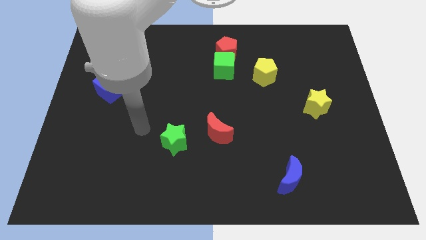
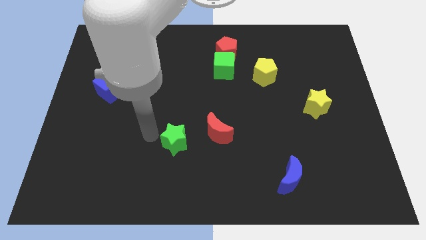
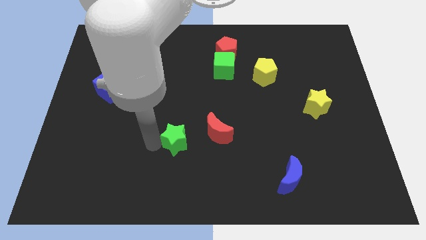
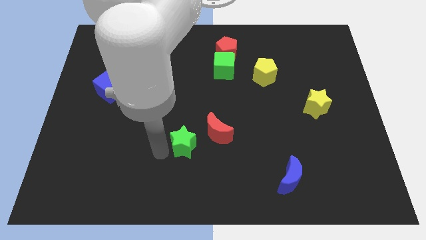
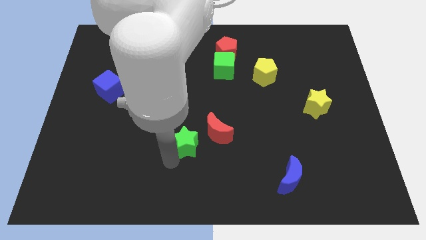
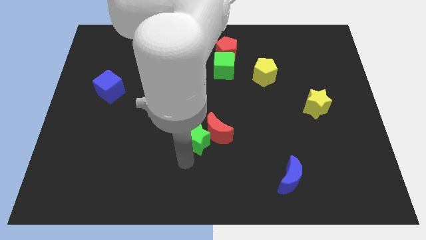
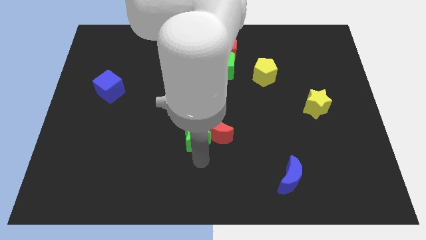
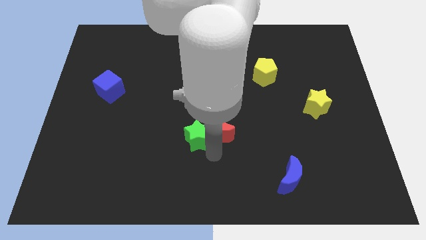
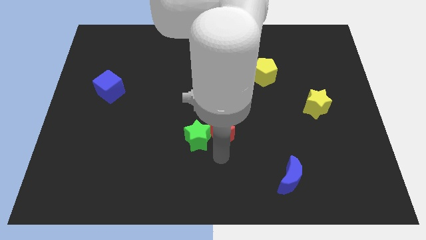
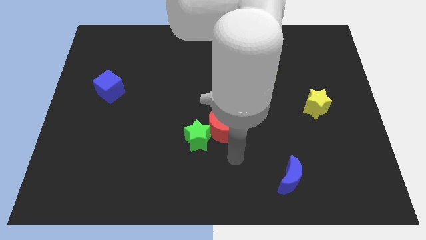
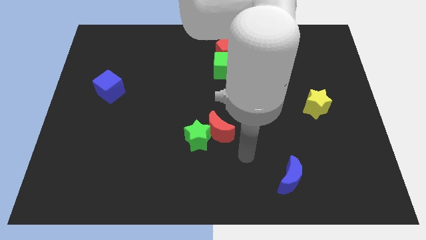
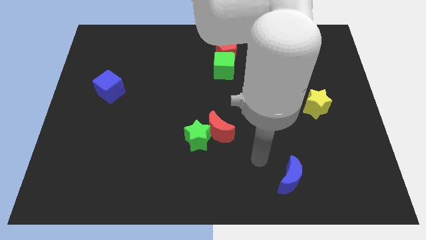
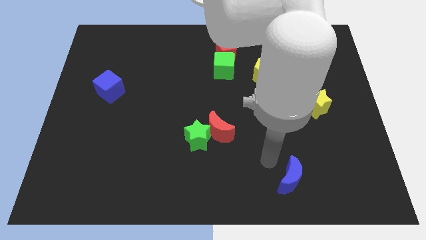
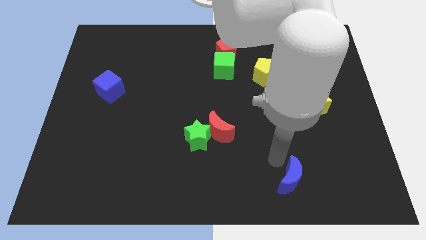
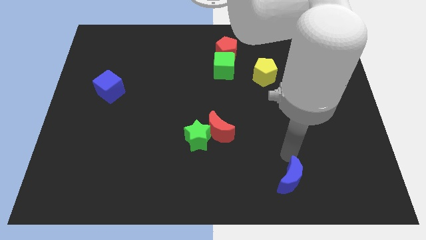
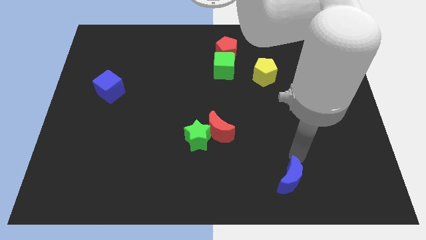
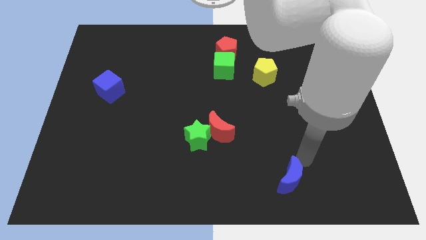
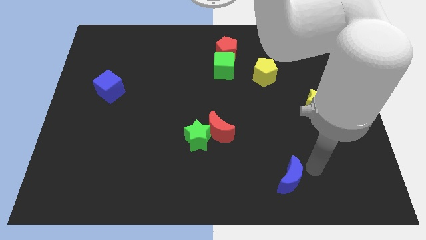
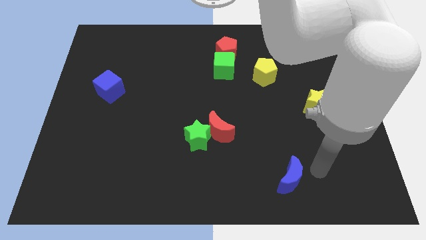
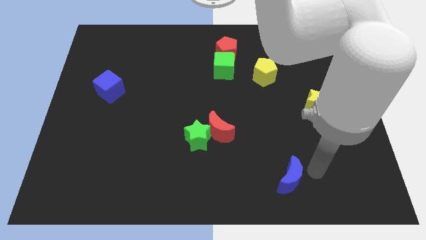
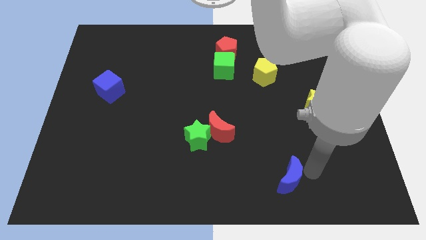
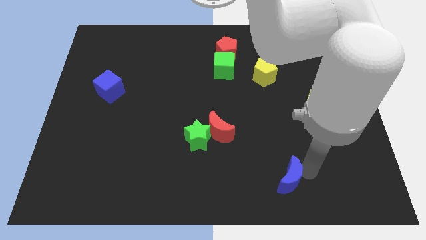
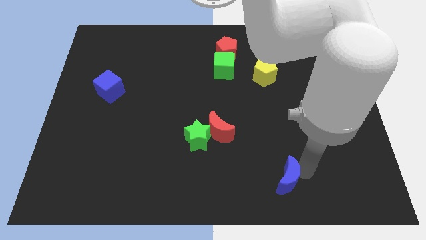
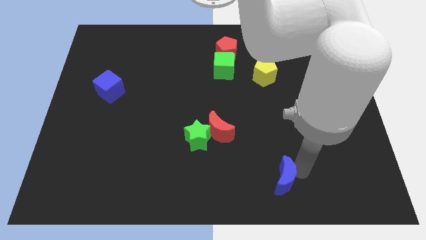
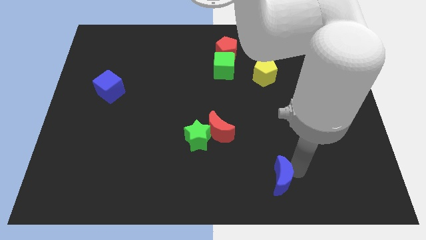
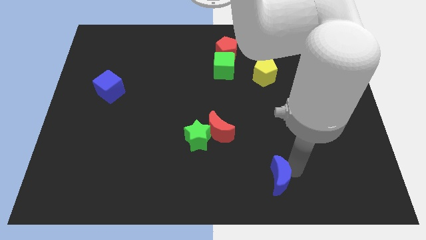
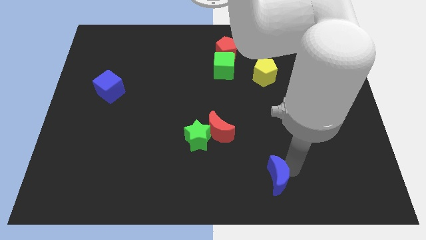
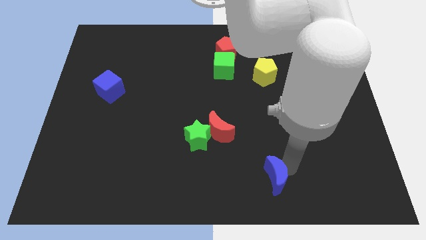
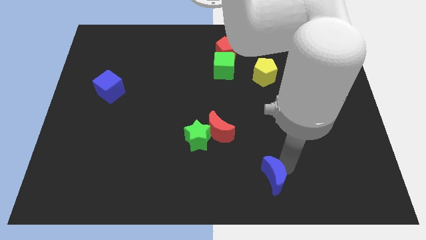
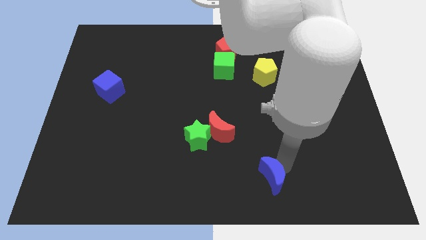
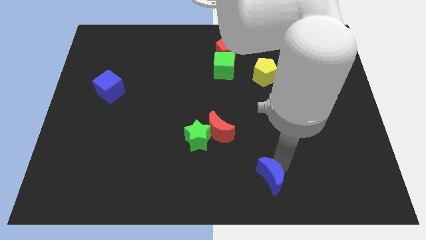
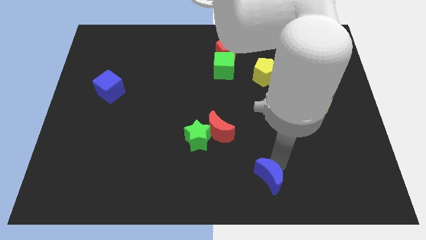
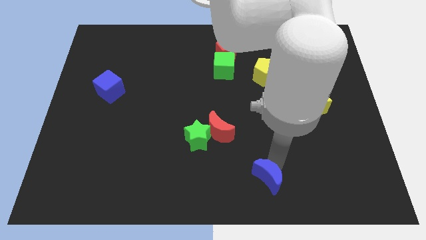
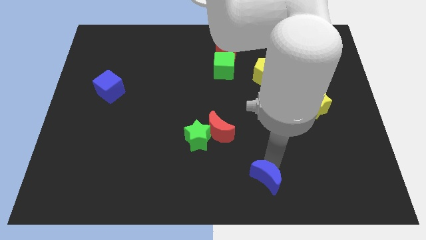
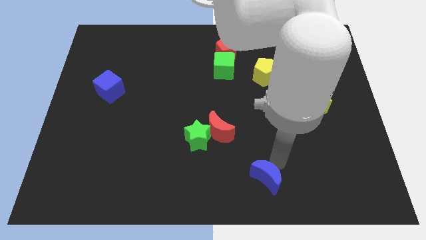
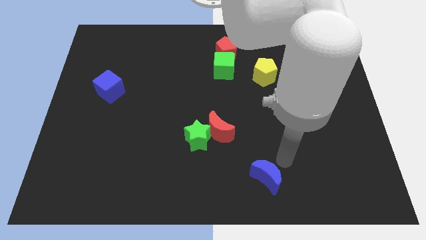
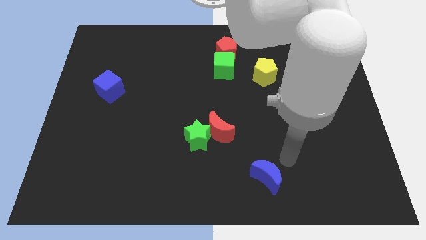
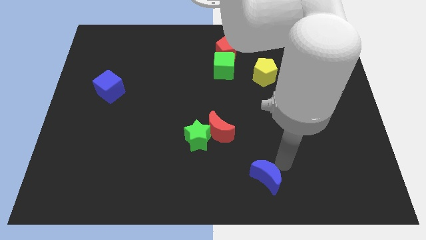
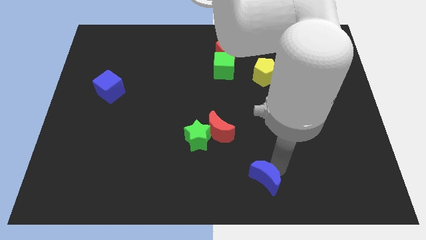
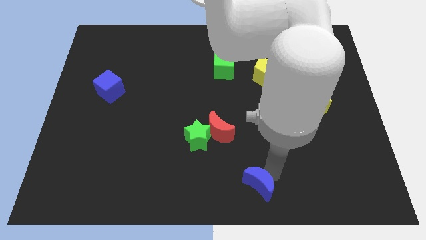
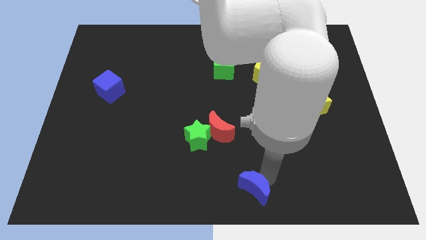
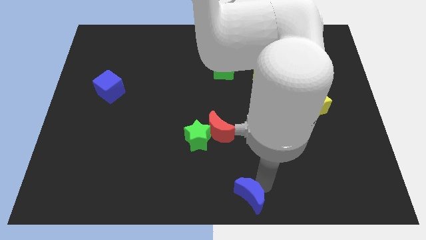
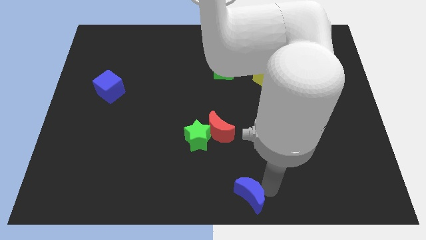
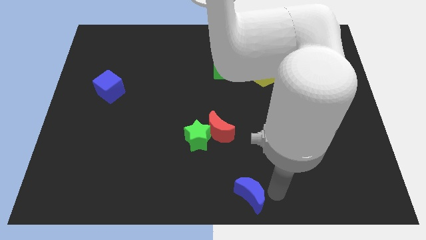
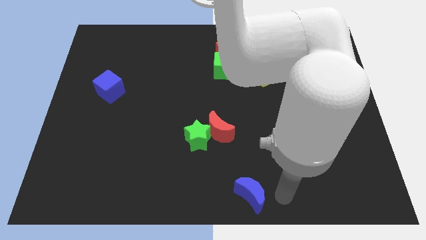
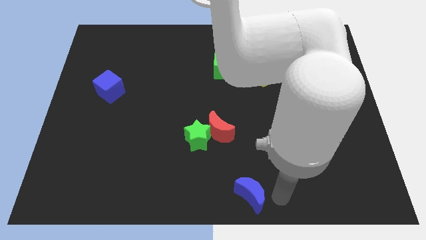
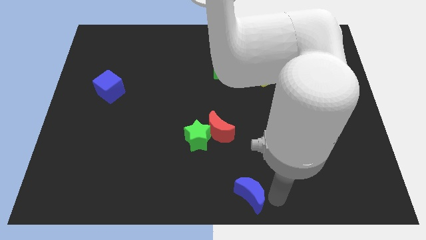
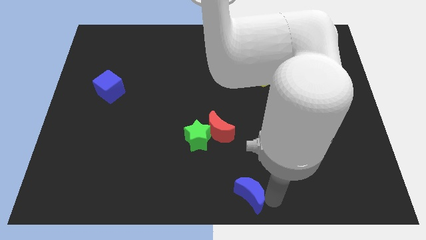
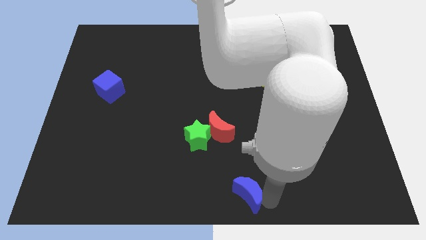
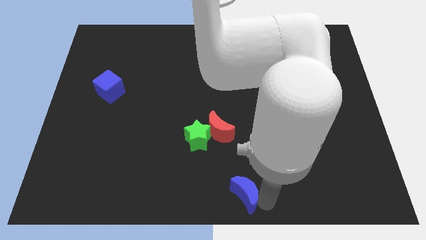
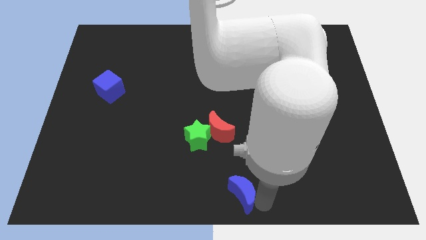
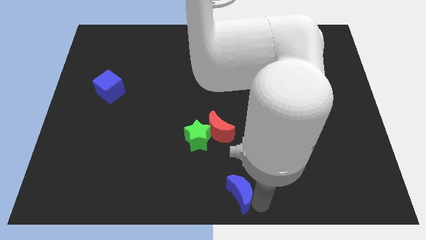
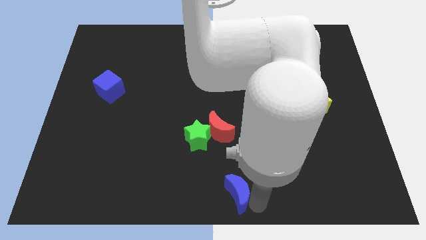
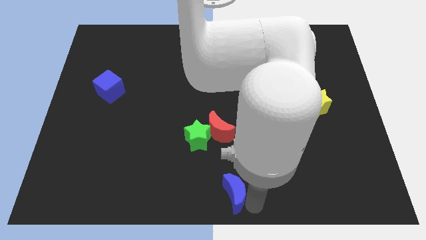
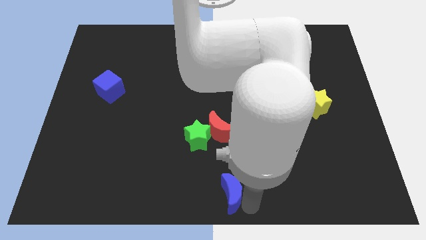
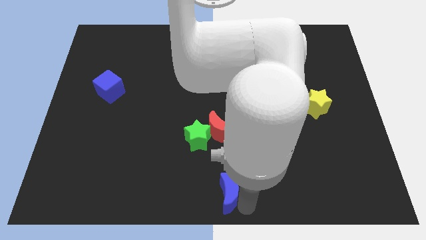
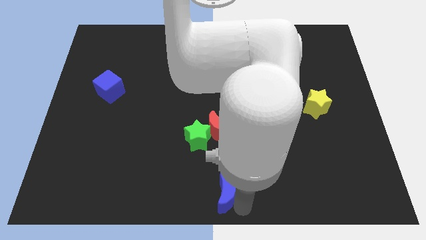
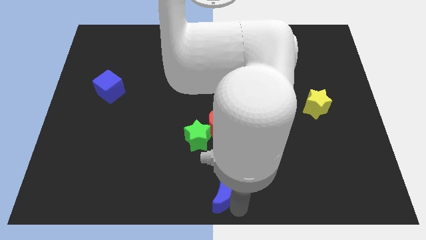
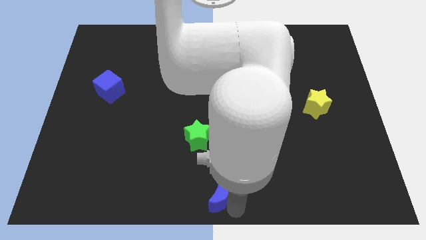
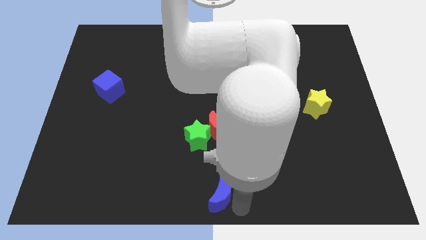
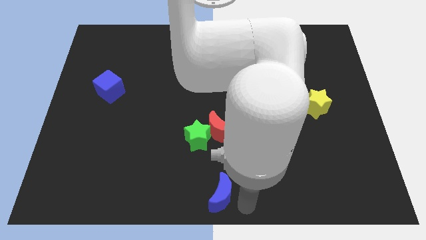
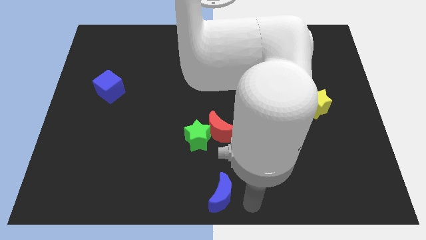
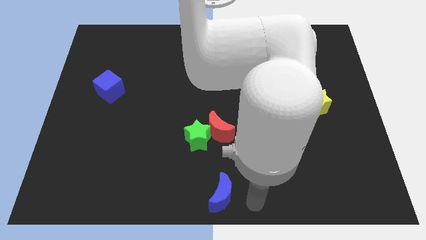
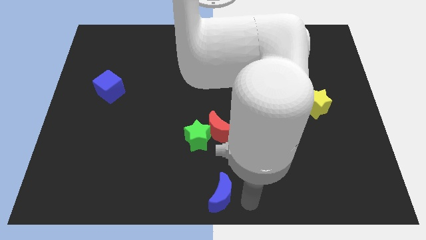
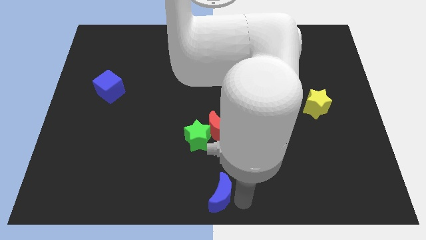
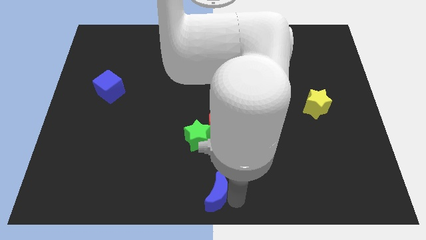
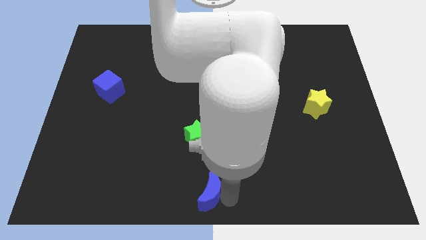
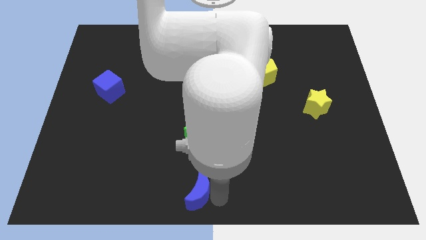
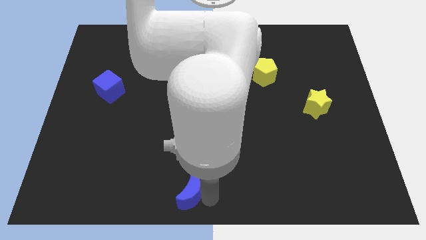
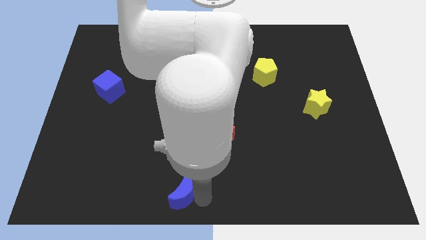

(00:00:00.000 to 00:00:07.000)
slide the blue moon to the left

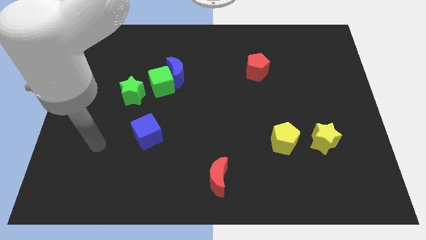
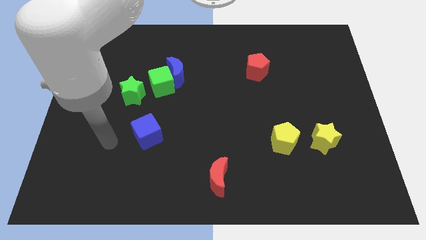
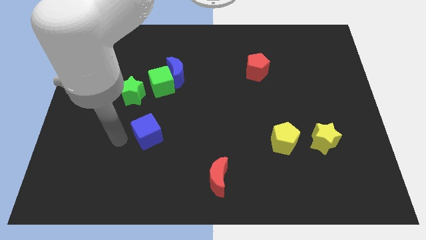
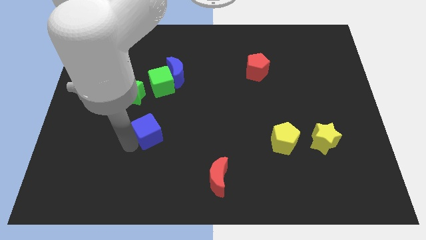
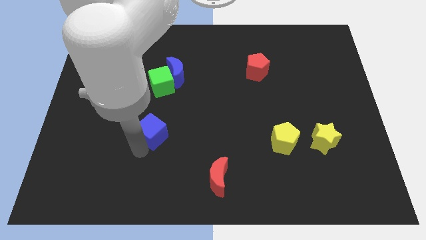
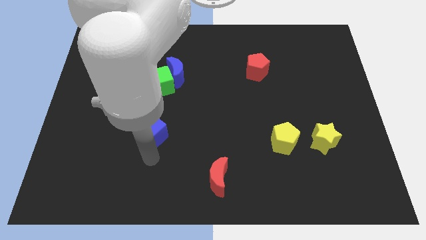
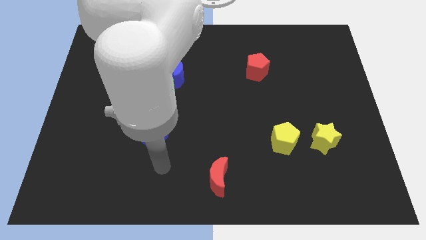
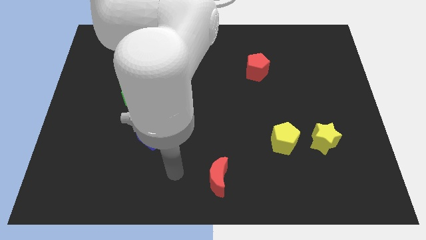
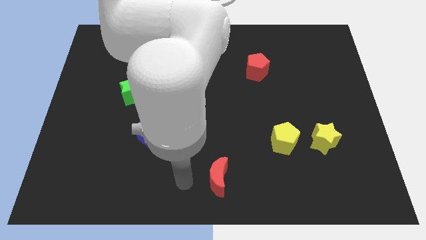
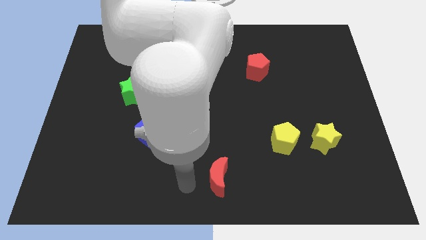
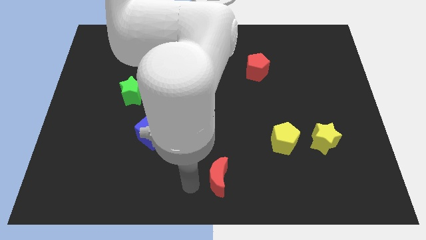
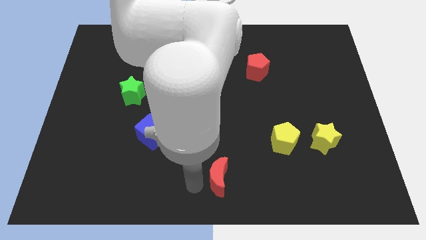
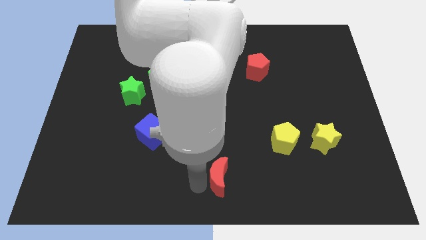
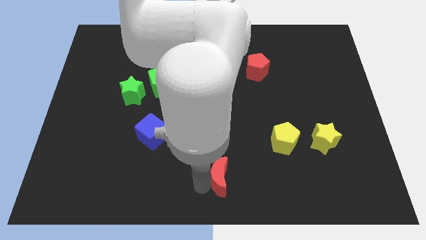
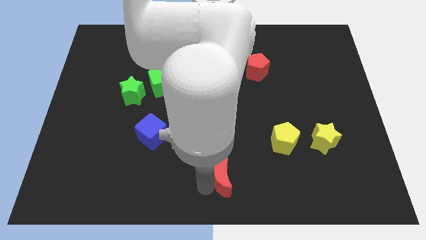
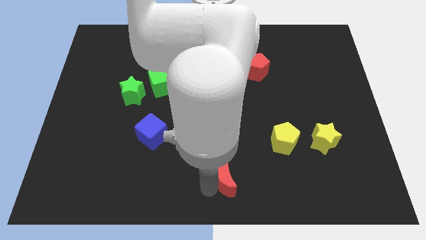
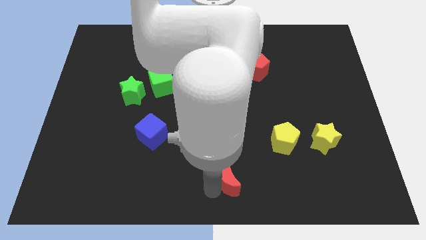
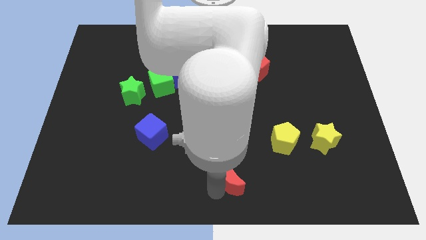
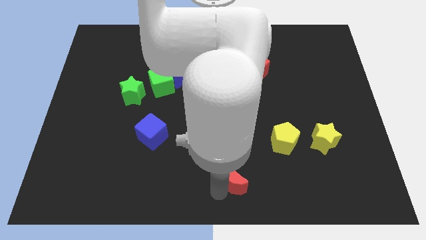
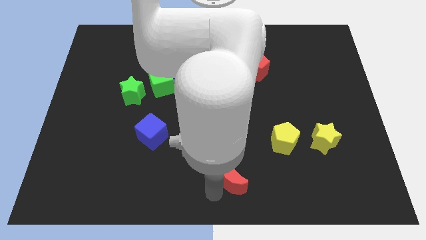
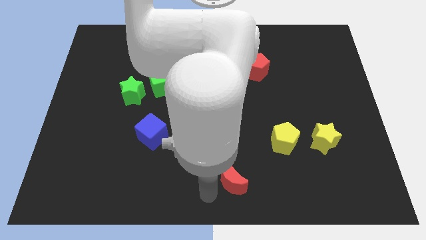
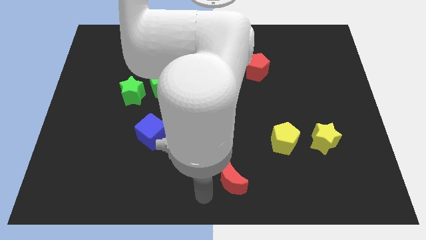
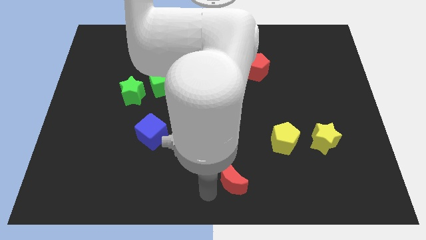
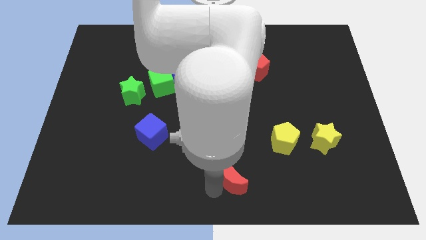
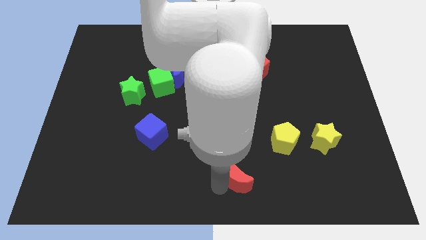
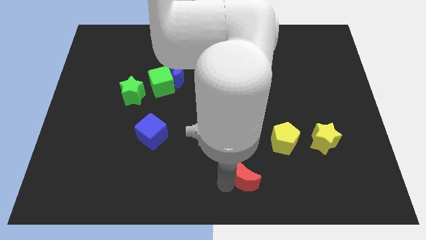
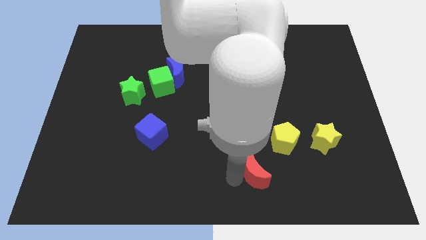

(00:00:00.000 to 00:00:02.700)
slide the red moon a little to the right
